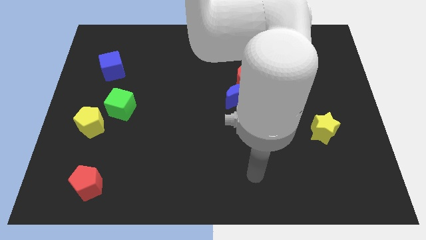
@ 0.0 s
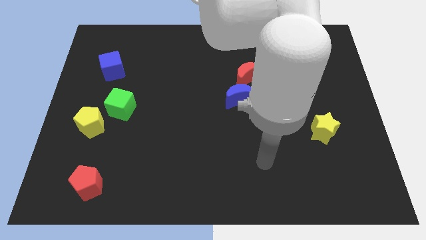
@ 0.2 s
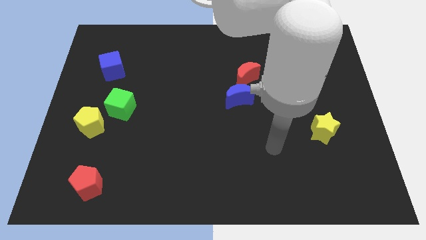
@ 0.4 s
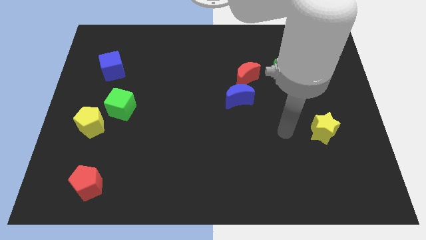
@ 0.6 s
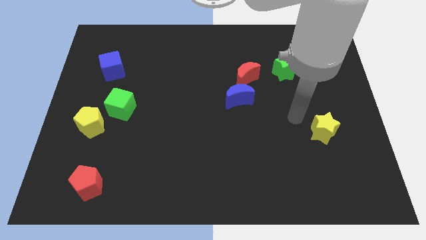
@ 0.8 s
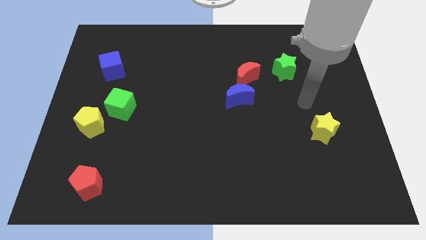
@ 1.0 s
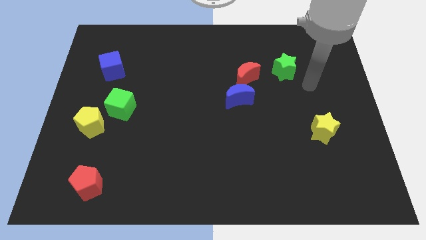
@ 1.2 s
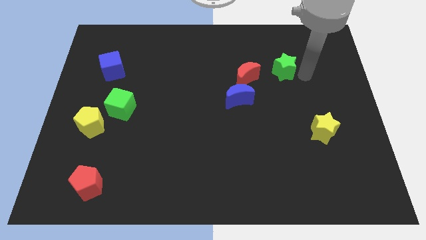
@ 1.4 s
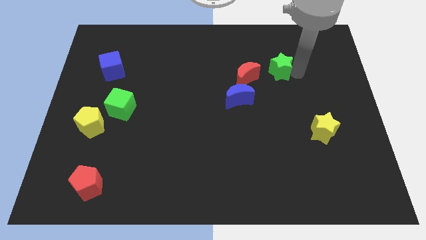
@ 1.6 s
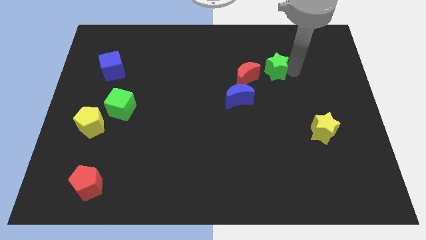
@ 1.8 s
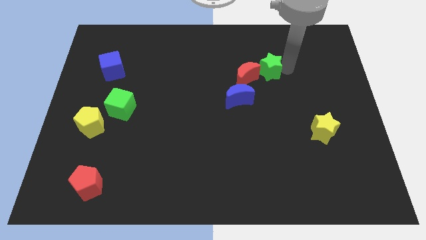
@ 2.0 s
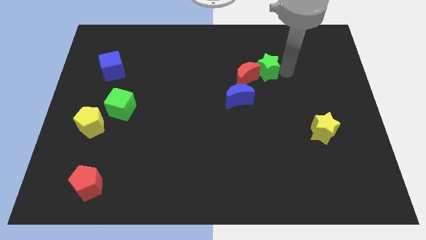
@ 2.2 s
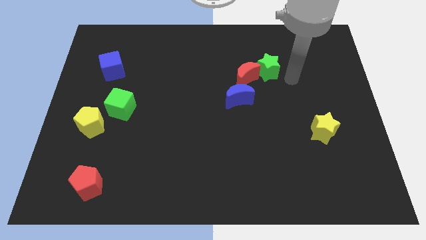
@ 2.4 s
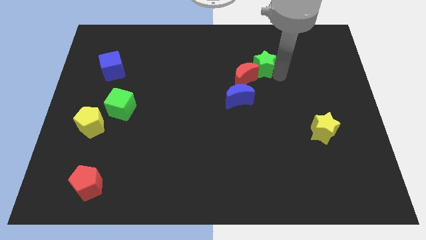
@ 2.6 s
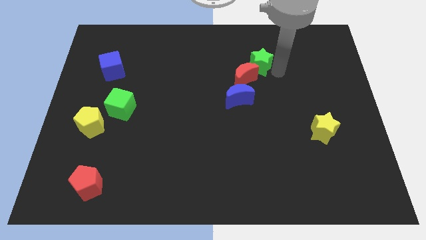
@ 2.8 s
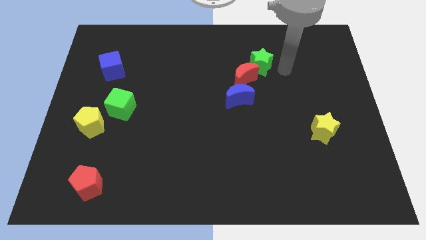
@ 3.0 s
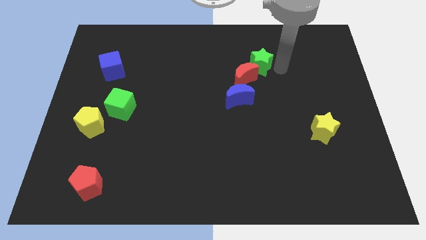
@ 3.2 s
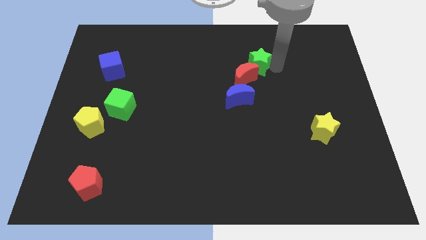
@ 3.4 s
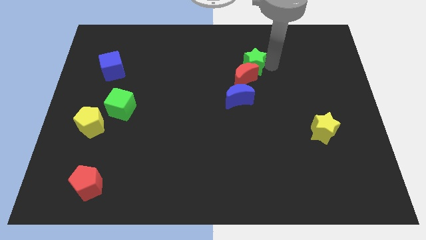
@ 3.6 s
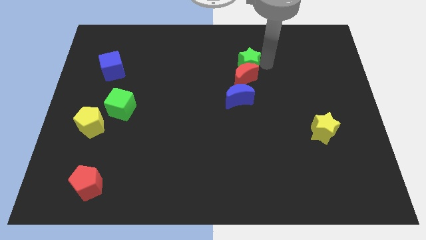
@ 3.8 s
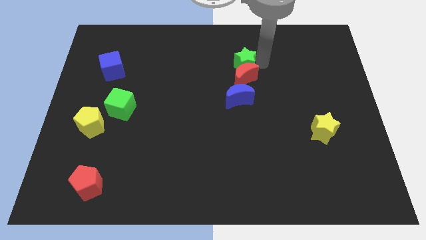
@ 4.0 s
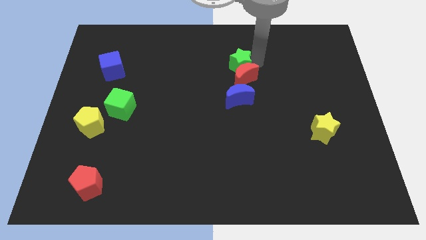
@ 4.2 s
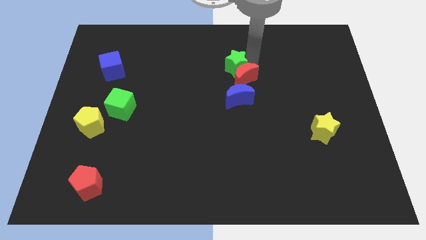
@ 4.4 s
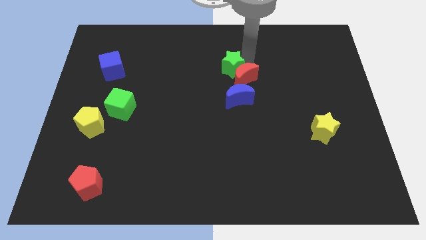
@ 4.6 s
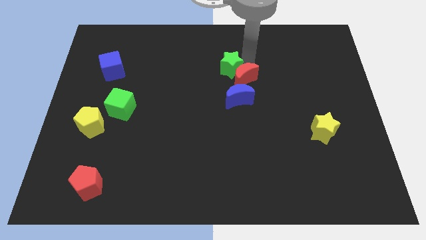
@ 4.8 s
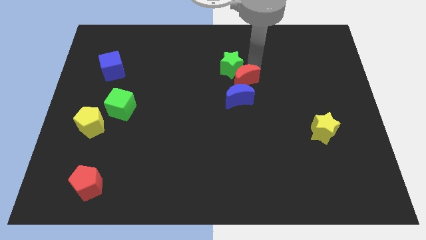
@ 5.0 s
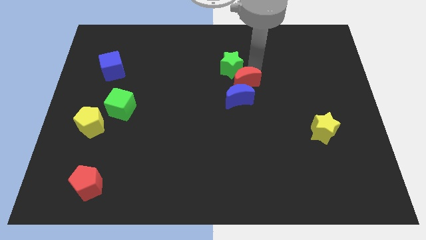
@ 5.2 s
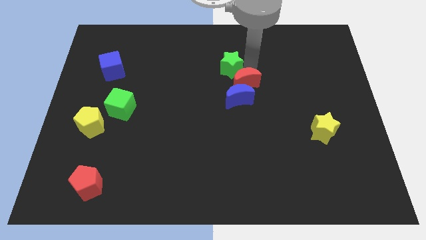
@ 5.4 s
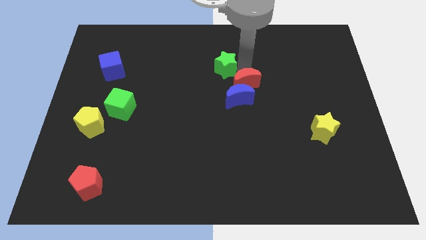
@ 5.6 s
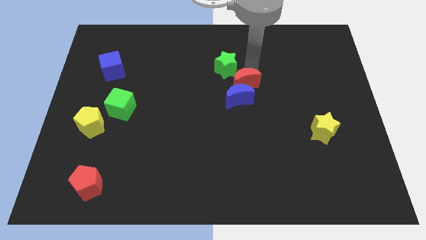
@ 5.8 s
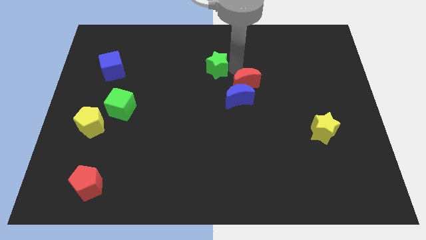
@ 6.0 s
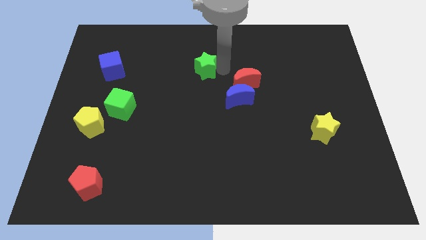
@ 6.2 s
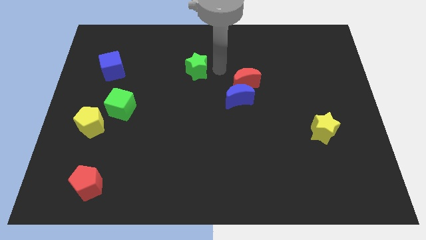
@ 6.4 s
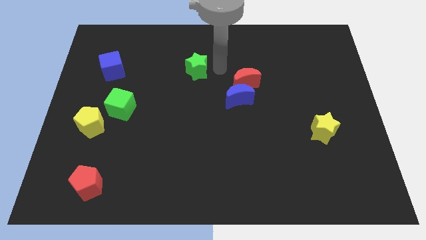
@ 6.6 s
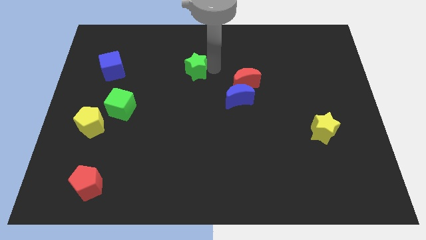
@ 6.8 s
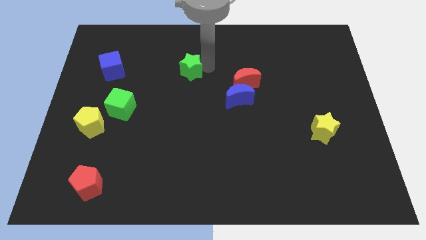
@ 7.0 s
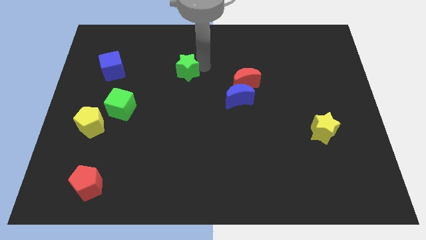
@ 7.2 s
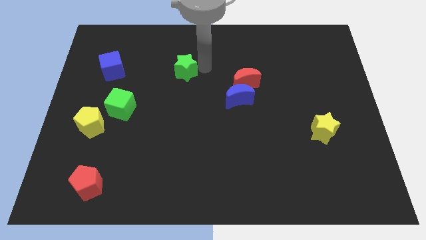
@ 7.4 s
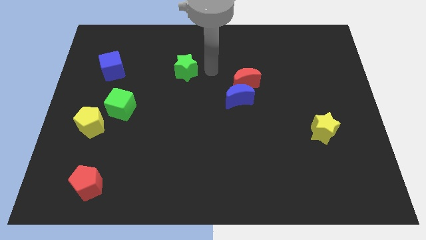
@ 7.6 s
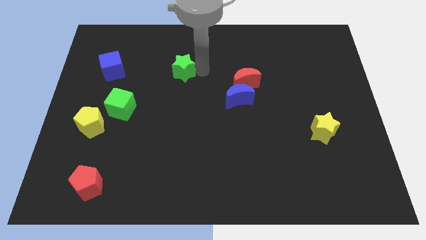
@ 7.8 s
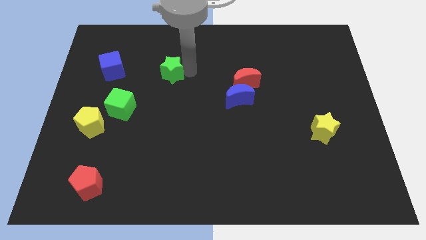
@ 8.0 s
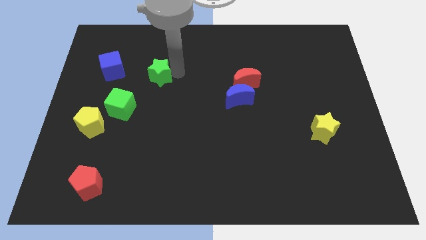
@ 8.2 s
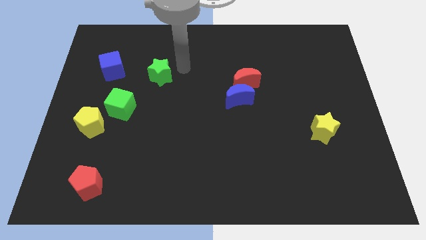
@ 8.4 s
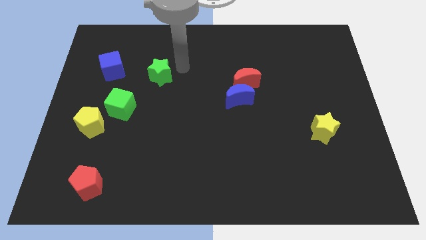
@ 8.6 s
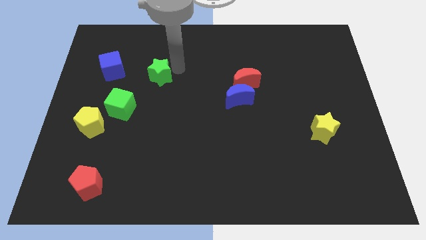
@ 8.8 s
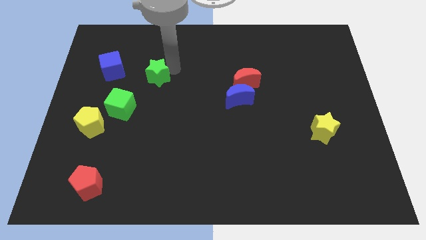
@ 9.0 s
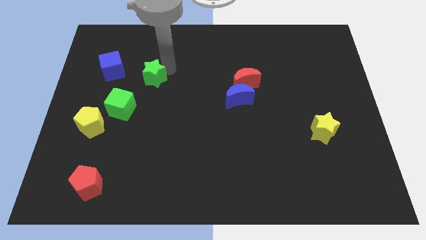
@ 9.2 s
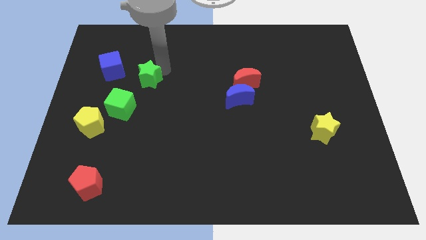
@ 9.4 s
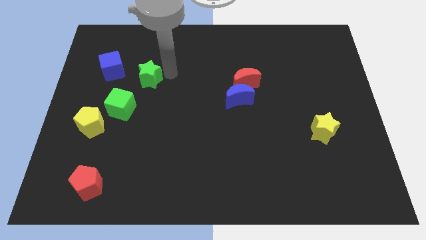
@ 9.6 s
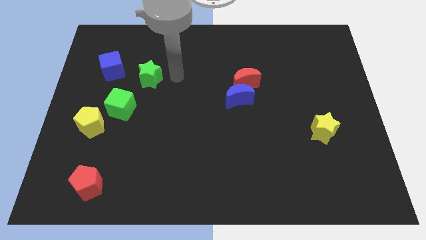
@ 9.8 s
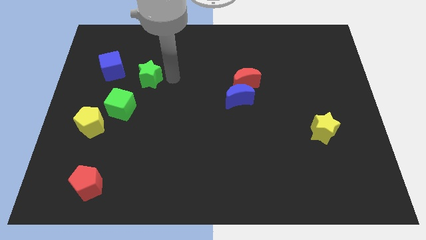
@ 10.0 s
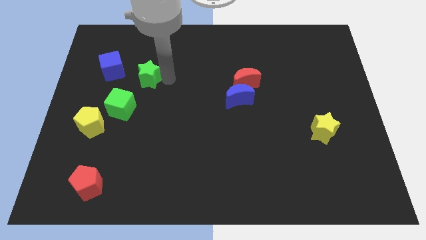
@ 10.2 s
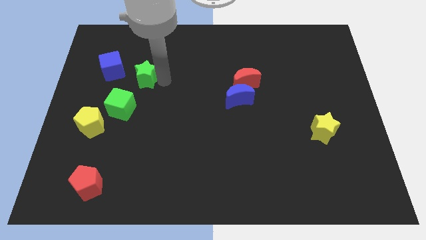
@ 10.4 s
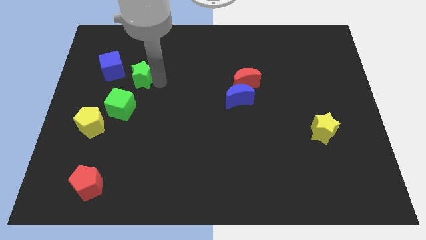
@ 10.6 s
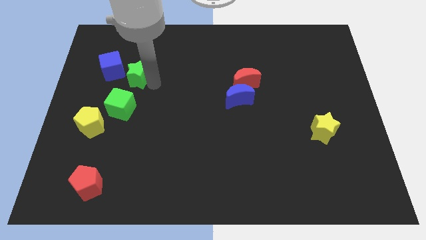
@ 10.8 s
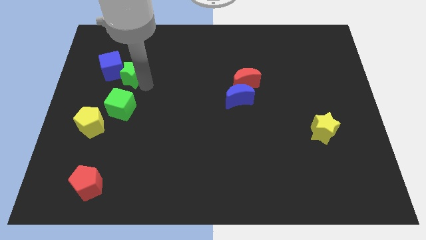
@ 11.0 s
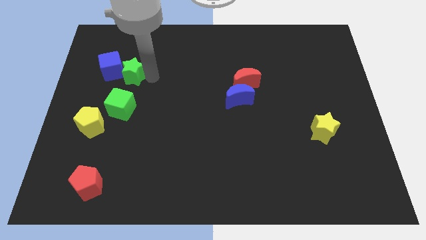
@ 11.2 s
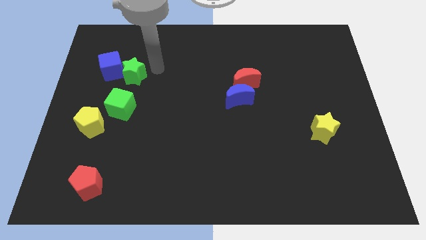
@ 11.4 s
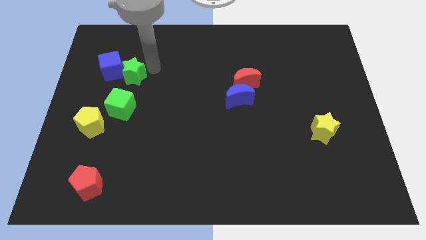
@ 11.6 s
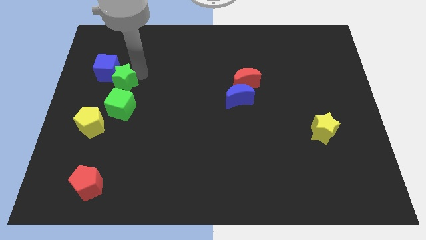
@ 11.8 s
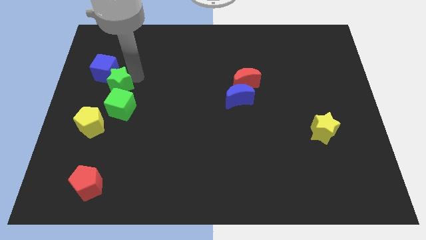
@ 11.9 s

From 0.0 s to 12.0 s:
push the green star to the bottom of the blue cube
